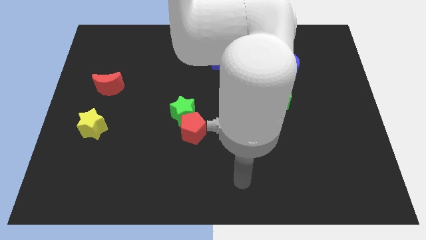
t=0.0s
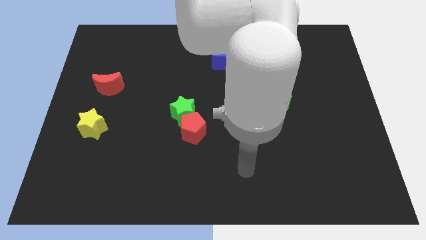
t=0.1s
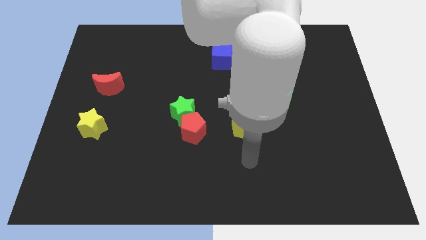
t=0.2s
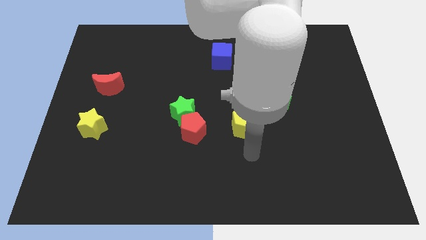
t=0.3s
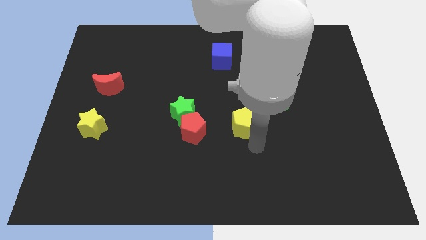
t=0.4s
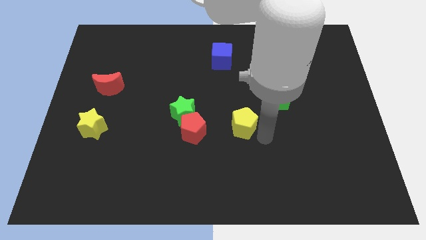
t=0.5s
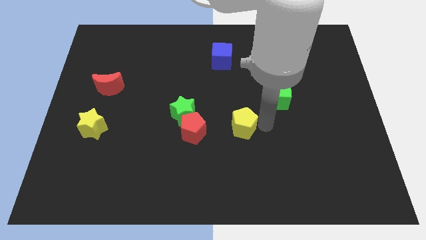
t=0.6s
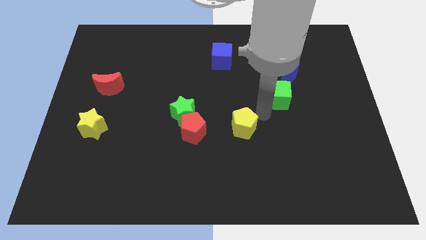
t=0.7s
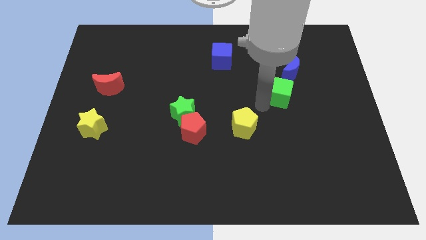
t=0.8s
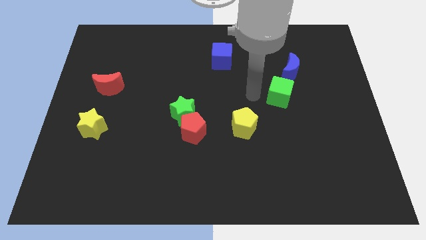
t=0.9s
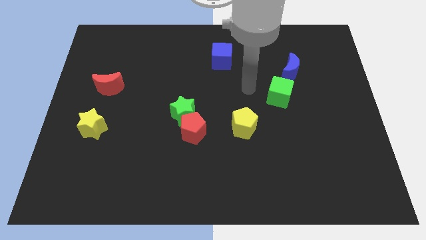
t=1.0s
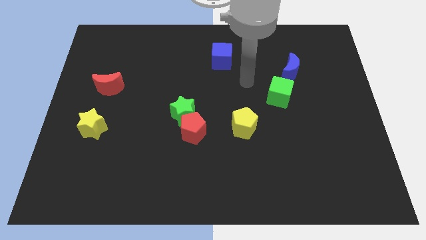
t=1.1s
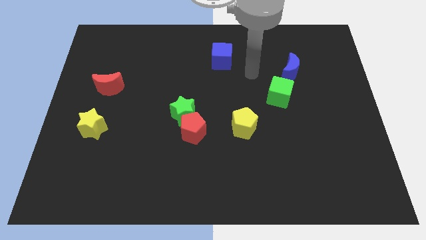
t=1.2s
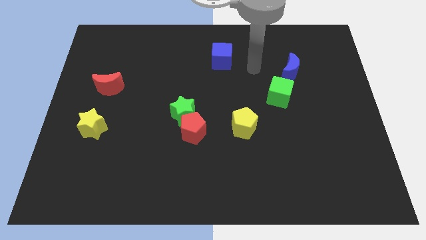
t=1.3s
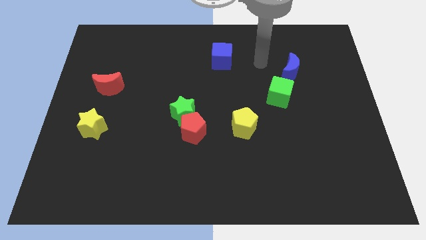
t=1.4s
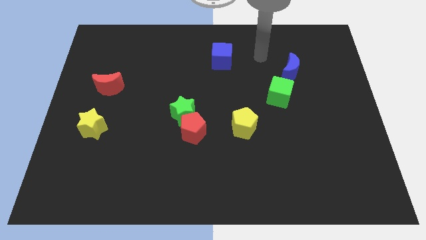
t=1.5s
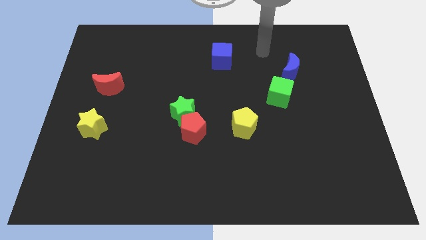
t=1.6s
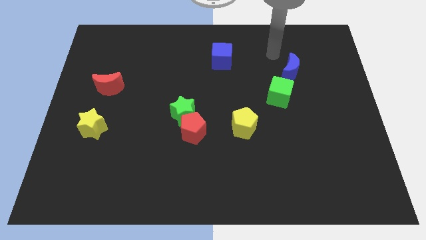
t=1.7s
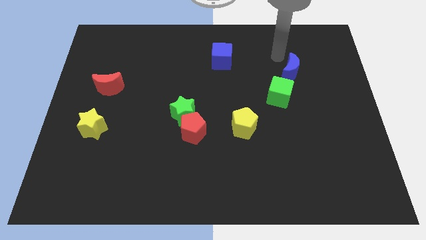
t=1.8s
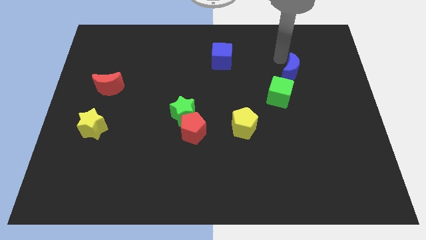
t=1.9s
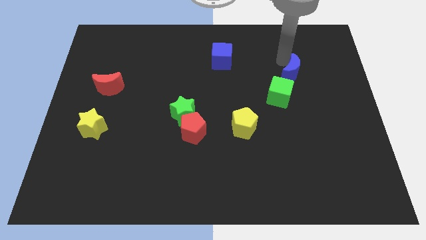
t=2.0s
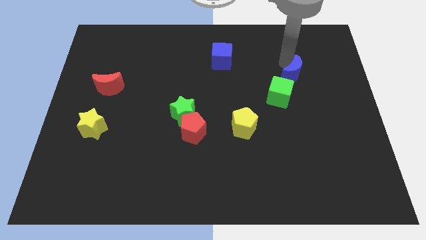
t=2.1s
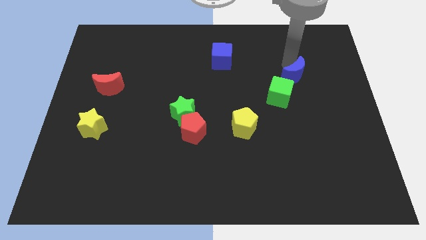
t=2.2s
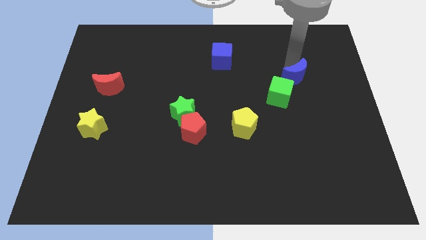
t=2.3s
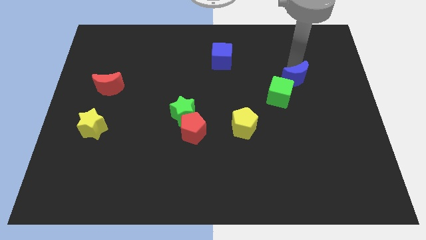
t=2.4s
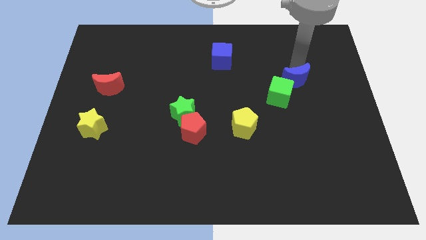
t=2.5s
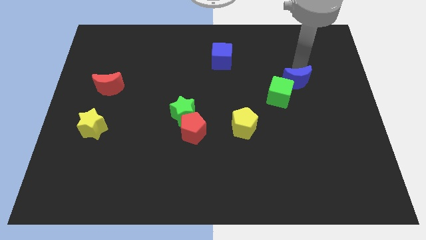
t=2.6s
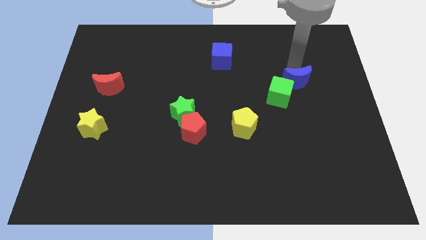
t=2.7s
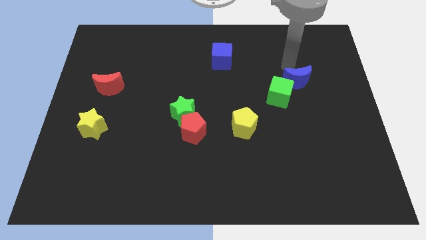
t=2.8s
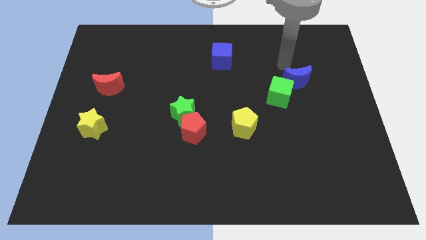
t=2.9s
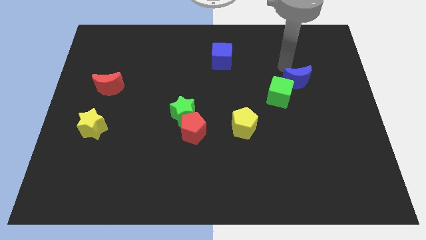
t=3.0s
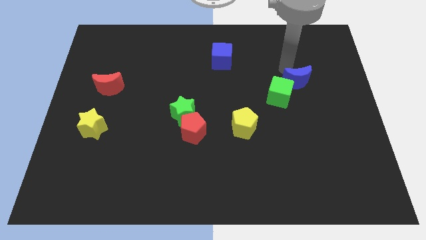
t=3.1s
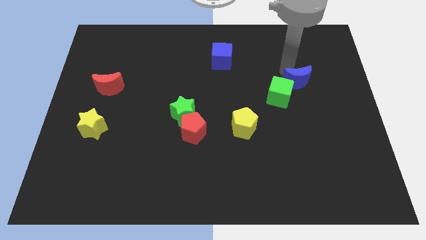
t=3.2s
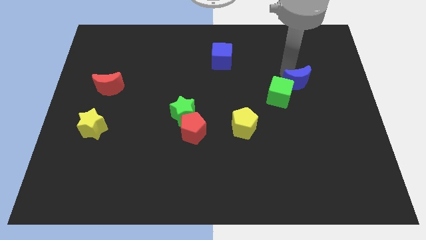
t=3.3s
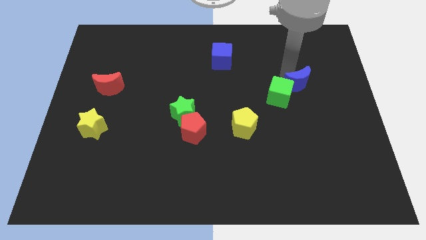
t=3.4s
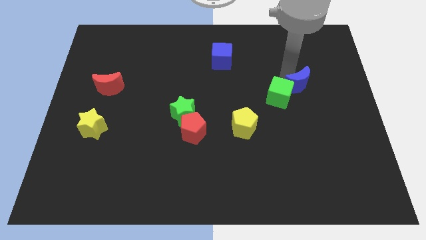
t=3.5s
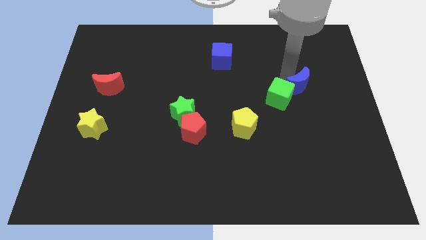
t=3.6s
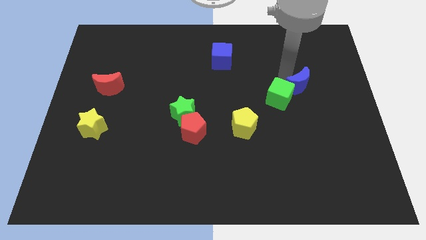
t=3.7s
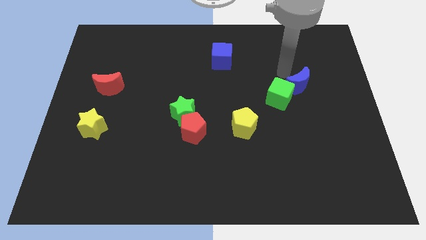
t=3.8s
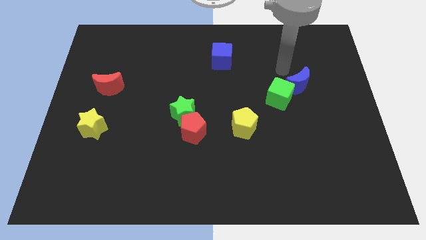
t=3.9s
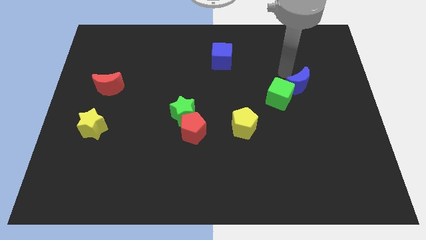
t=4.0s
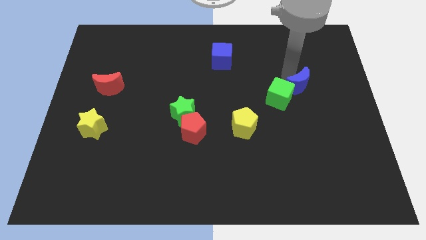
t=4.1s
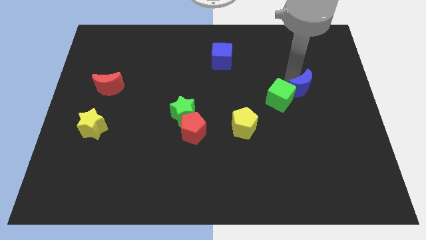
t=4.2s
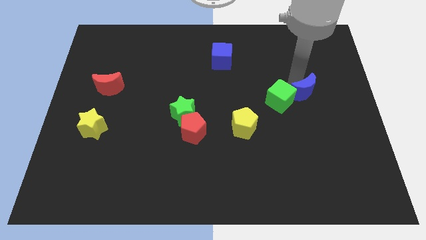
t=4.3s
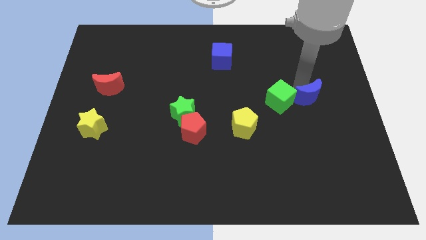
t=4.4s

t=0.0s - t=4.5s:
slightly slide the blue moon downwards

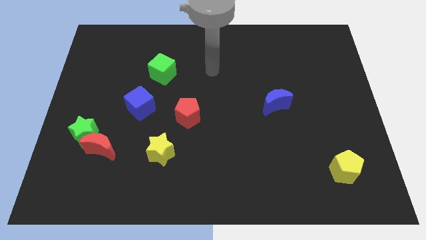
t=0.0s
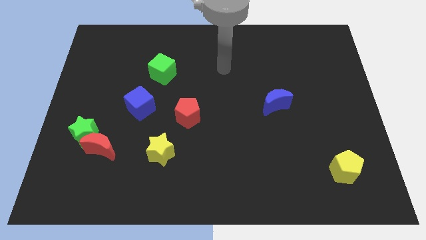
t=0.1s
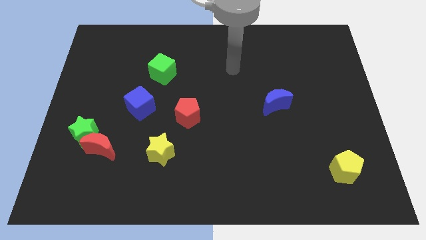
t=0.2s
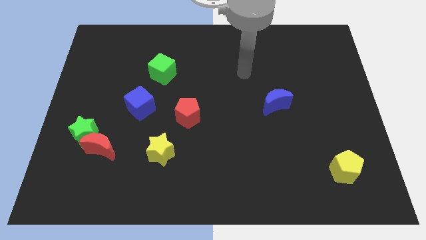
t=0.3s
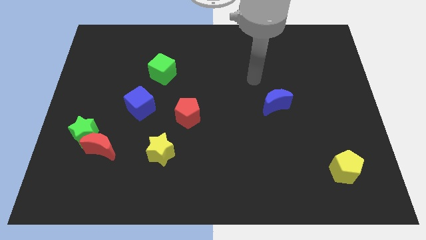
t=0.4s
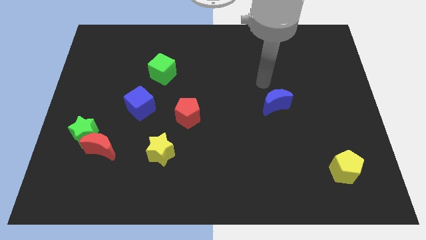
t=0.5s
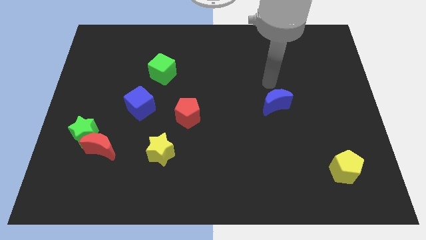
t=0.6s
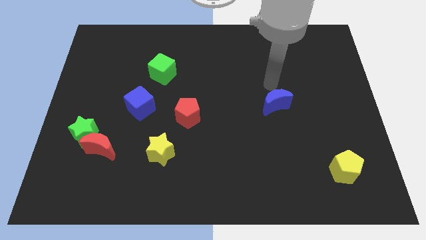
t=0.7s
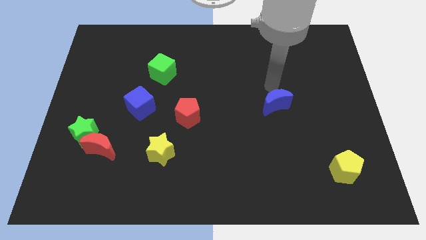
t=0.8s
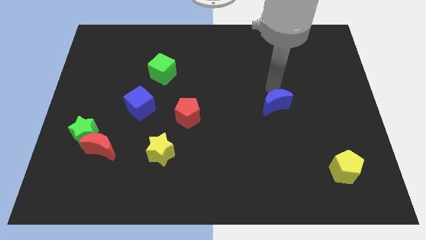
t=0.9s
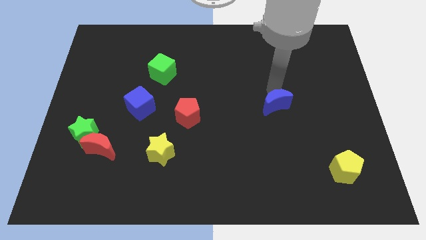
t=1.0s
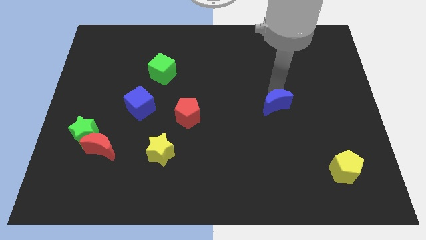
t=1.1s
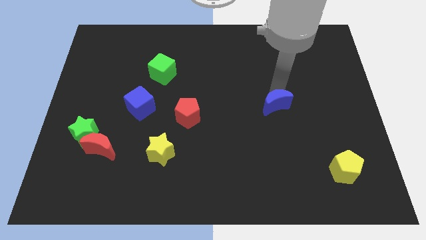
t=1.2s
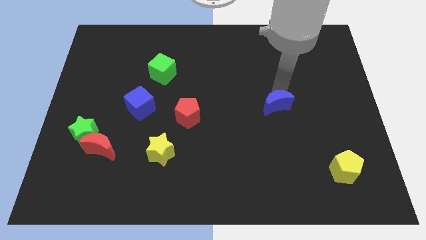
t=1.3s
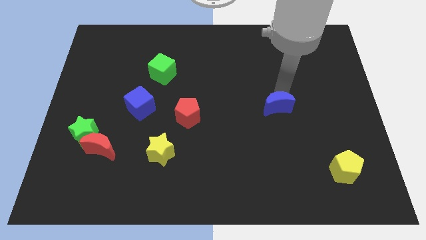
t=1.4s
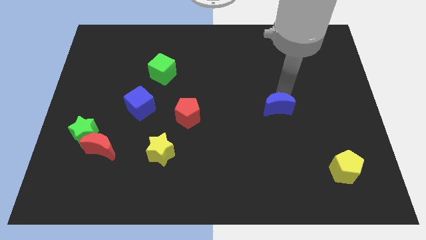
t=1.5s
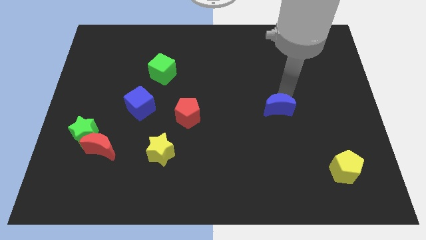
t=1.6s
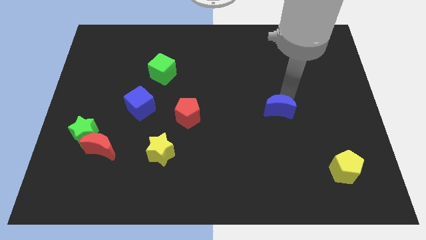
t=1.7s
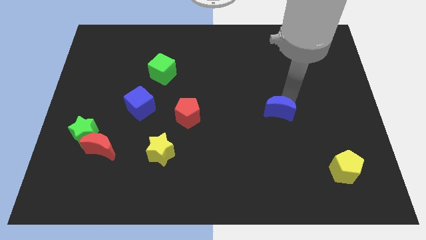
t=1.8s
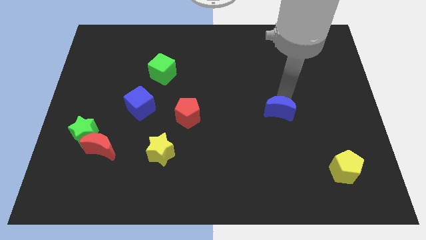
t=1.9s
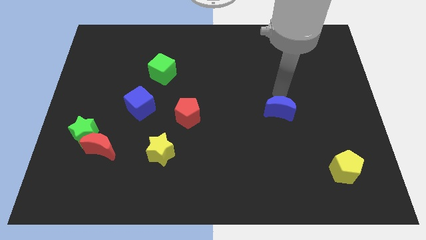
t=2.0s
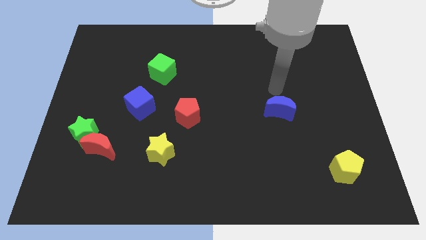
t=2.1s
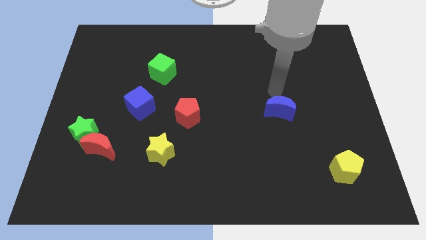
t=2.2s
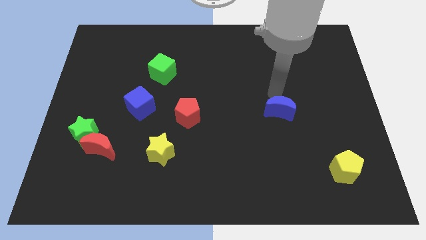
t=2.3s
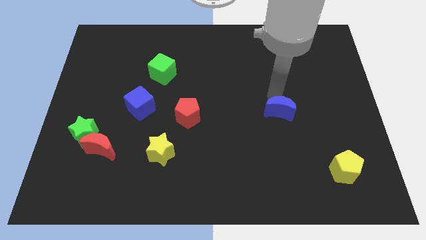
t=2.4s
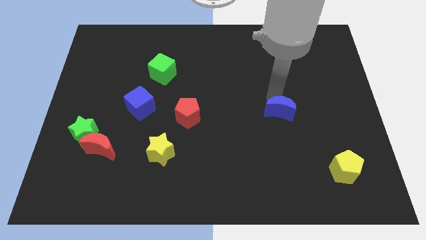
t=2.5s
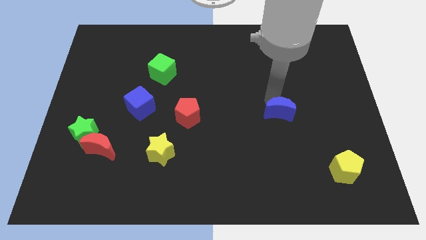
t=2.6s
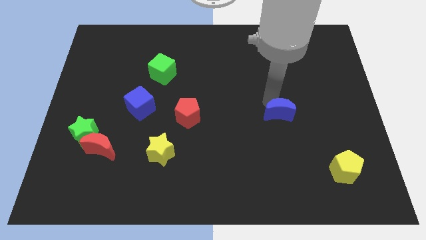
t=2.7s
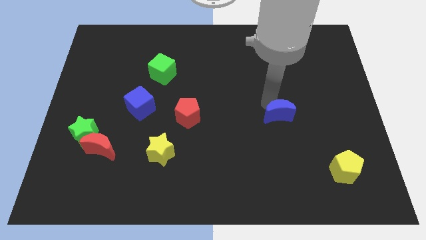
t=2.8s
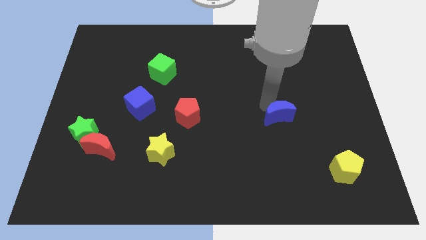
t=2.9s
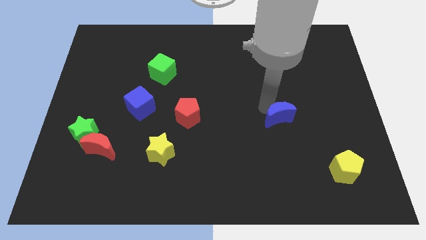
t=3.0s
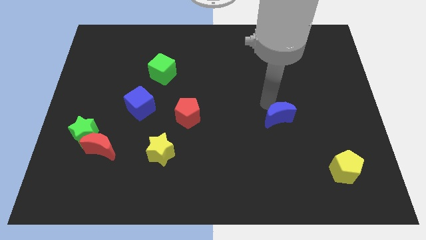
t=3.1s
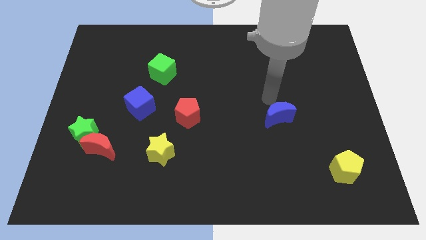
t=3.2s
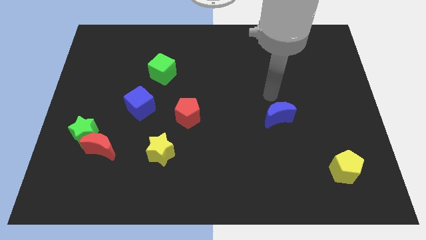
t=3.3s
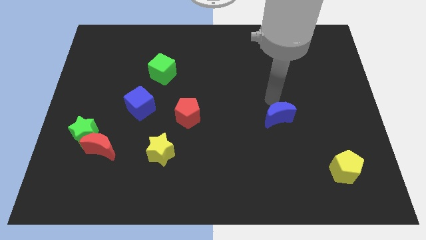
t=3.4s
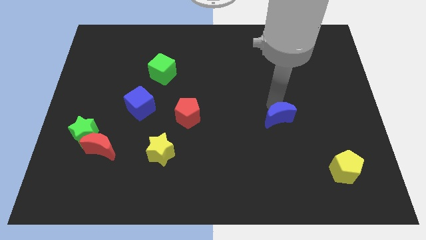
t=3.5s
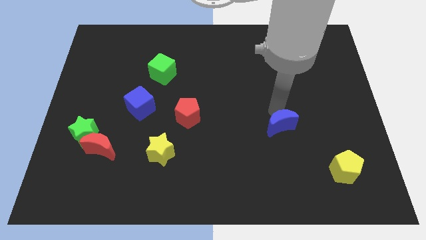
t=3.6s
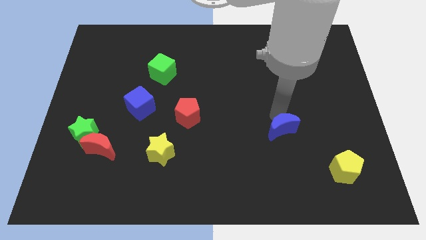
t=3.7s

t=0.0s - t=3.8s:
move the blue moon down slightly
